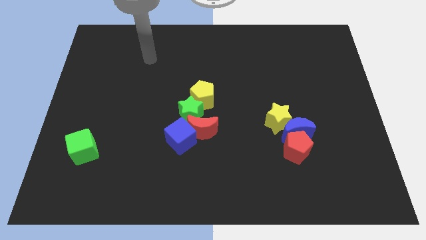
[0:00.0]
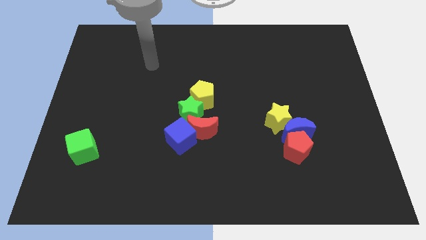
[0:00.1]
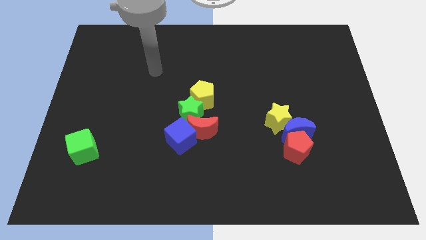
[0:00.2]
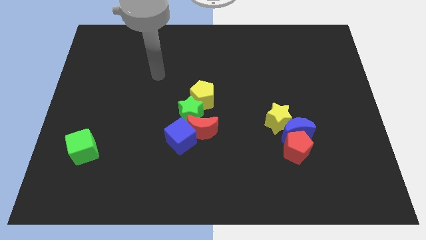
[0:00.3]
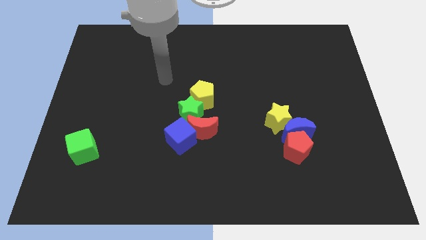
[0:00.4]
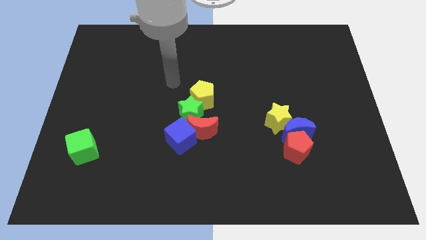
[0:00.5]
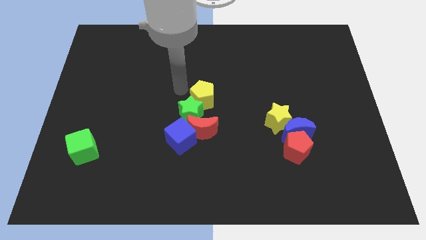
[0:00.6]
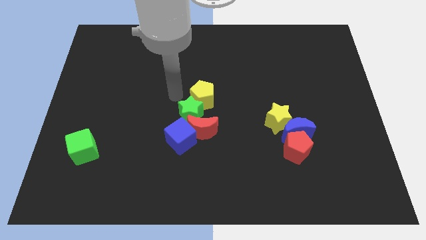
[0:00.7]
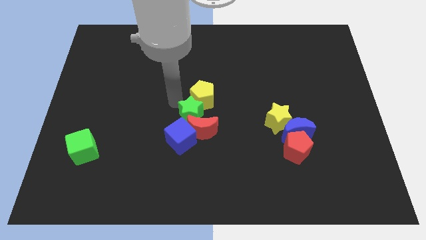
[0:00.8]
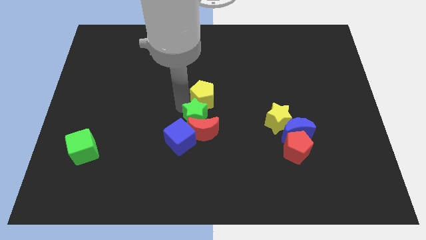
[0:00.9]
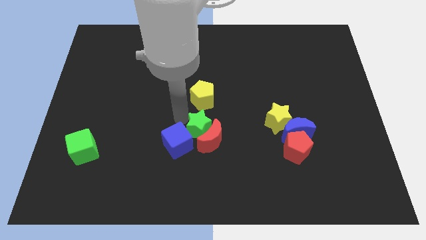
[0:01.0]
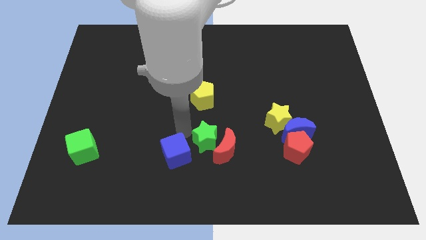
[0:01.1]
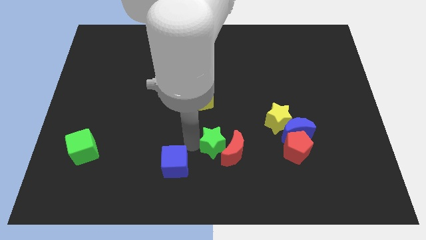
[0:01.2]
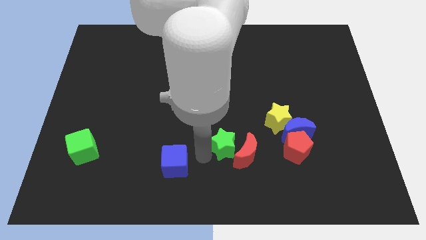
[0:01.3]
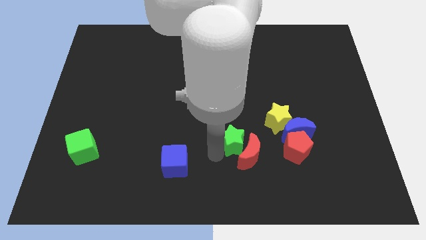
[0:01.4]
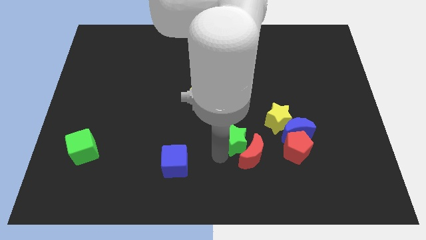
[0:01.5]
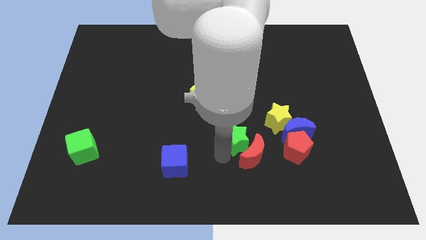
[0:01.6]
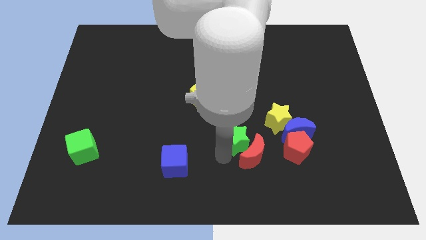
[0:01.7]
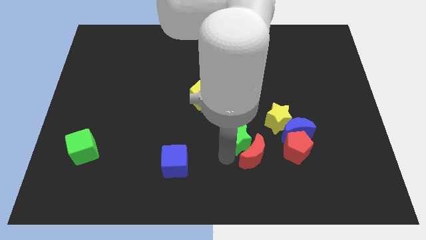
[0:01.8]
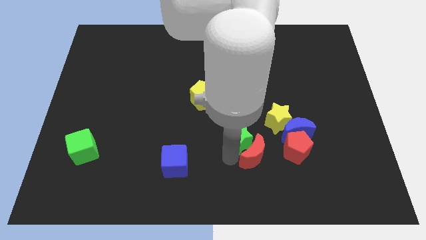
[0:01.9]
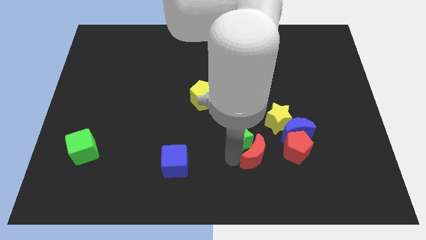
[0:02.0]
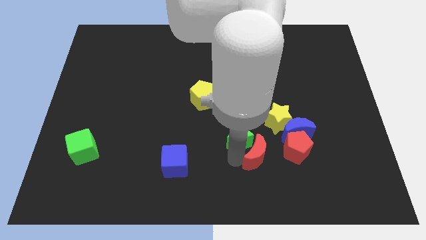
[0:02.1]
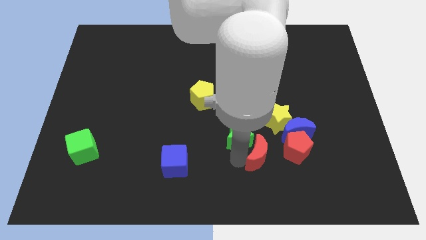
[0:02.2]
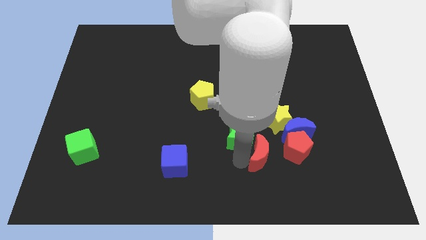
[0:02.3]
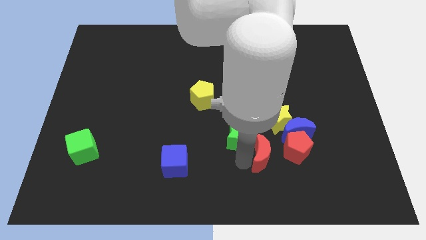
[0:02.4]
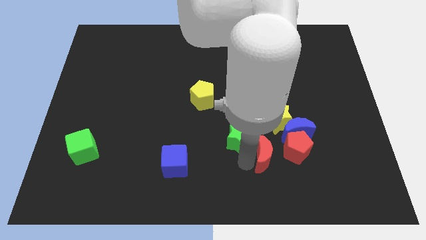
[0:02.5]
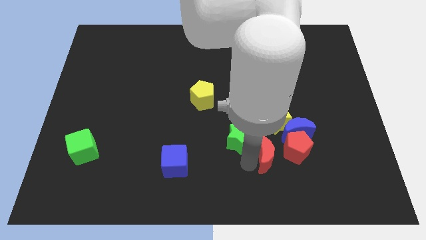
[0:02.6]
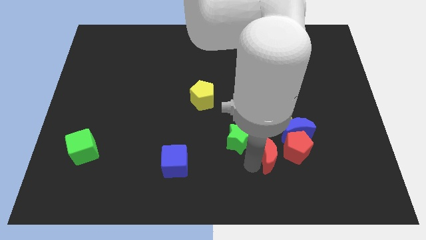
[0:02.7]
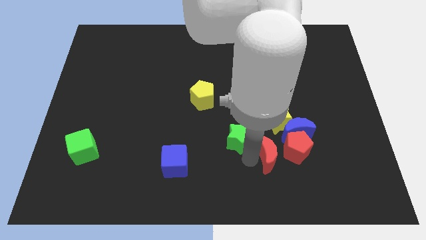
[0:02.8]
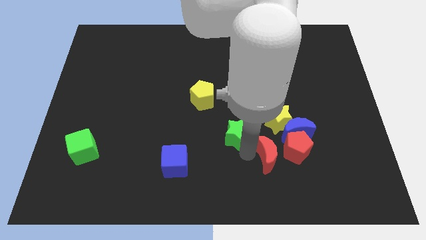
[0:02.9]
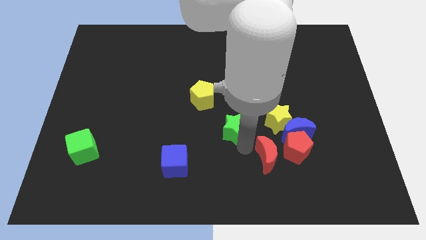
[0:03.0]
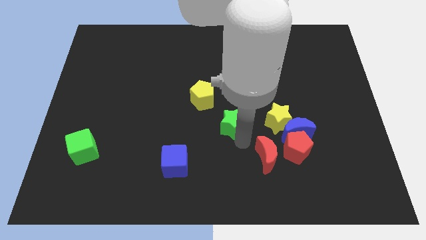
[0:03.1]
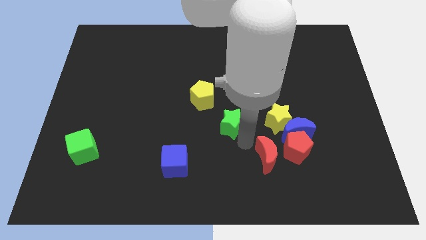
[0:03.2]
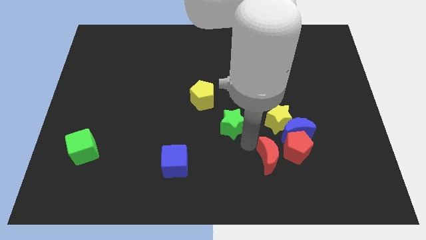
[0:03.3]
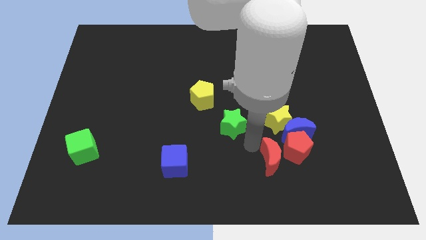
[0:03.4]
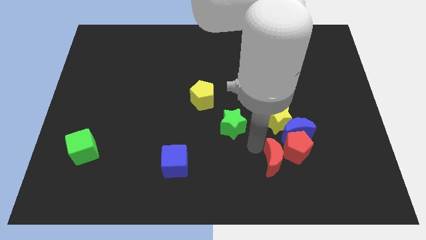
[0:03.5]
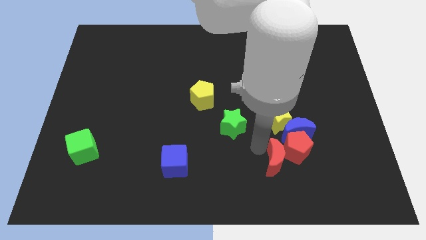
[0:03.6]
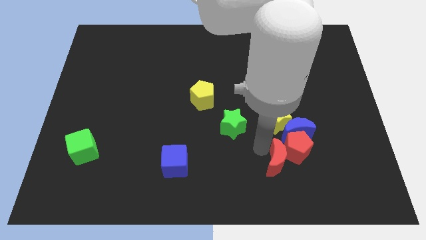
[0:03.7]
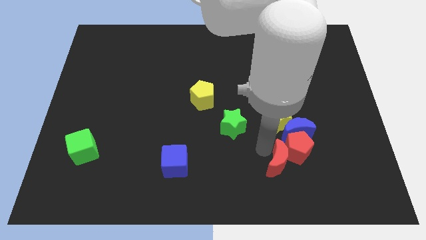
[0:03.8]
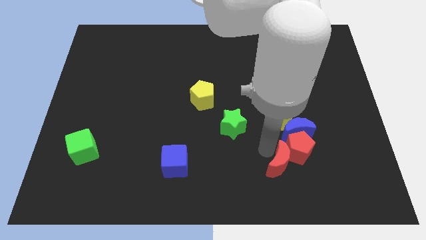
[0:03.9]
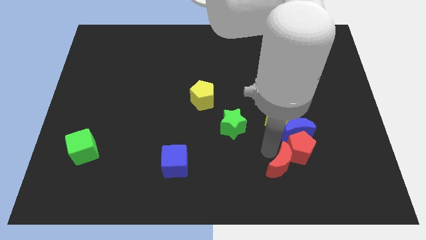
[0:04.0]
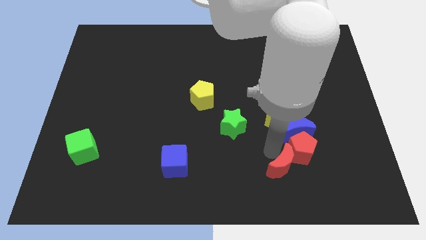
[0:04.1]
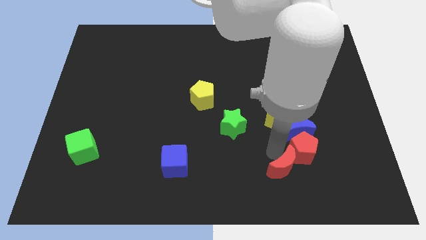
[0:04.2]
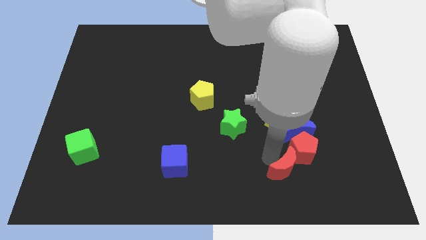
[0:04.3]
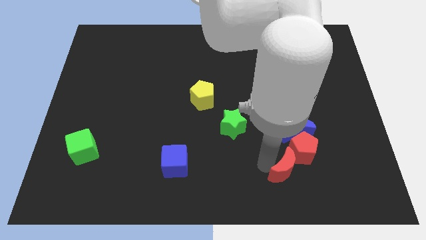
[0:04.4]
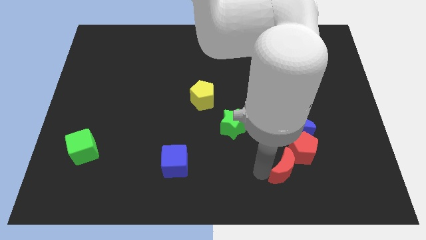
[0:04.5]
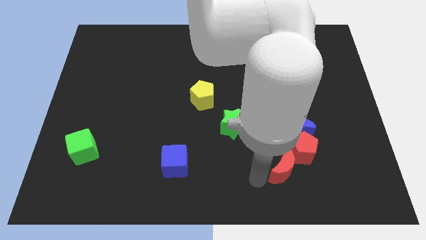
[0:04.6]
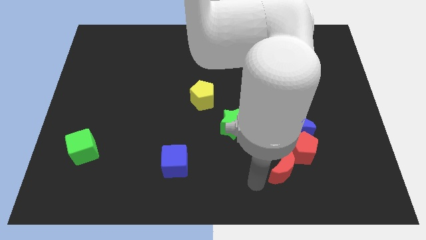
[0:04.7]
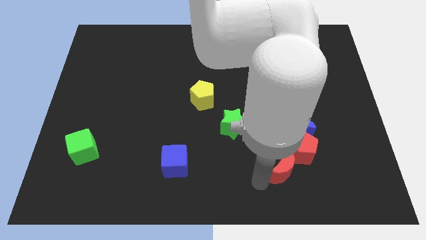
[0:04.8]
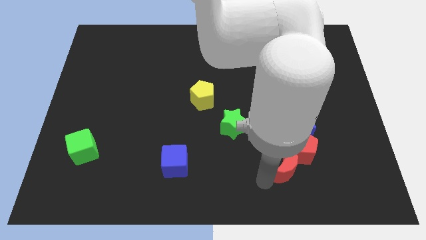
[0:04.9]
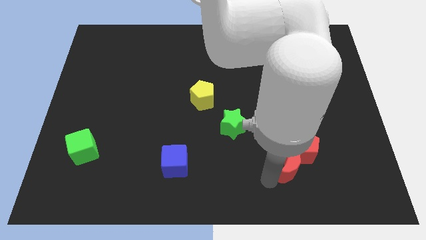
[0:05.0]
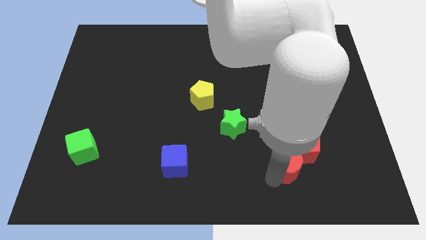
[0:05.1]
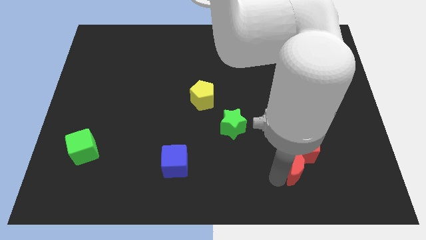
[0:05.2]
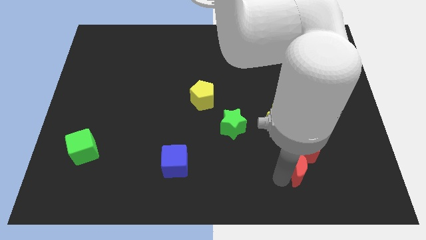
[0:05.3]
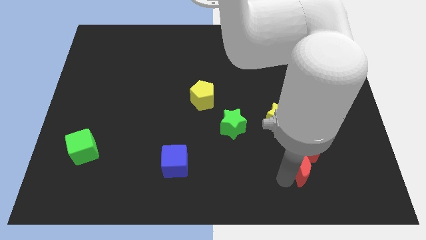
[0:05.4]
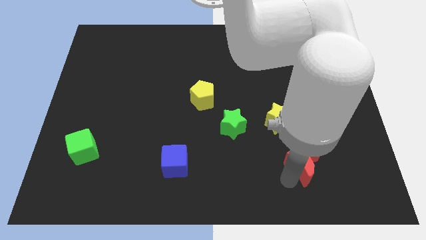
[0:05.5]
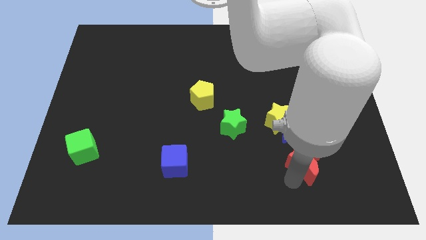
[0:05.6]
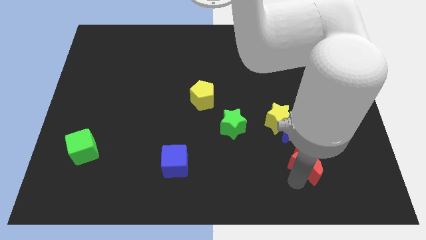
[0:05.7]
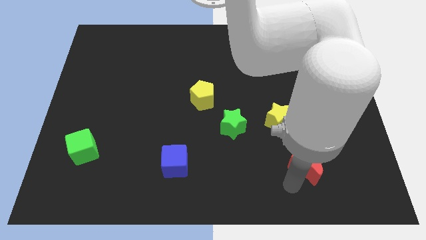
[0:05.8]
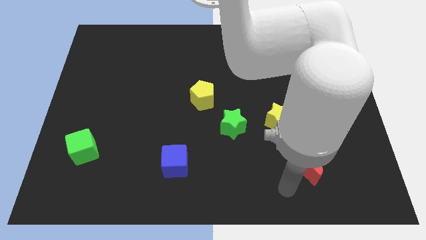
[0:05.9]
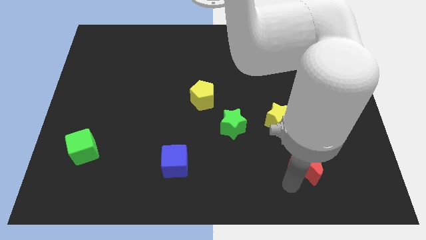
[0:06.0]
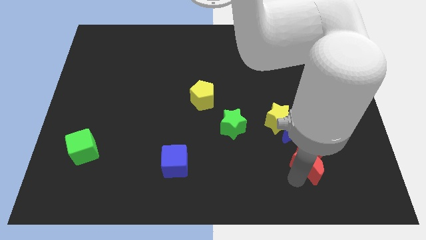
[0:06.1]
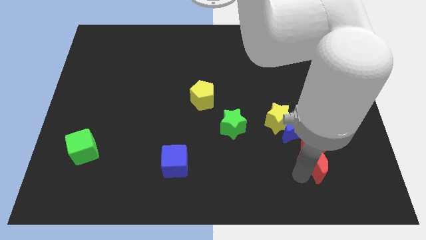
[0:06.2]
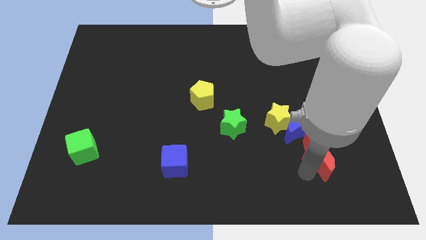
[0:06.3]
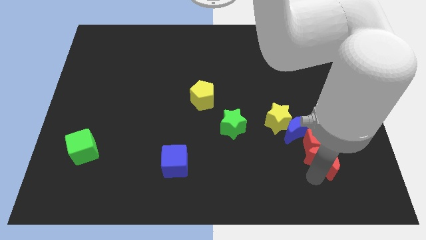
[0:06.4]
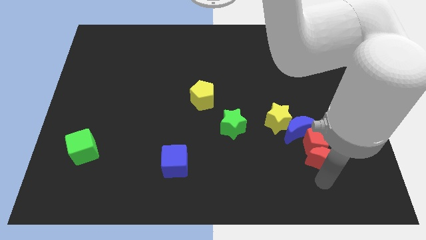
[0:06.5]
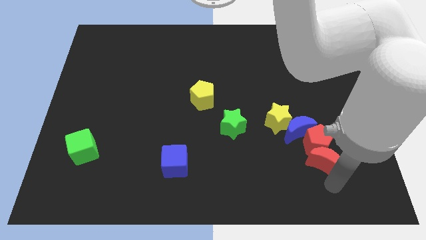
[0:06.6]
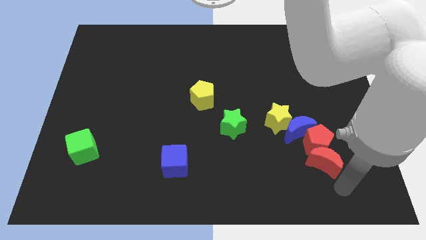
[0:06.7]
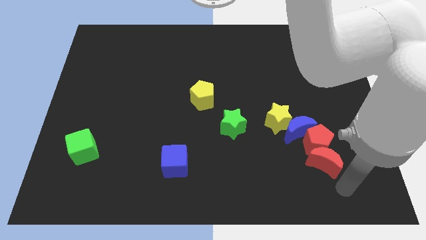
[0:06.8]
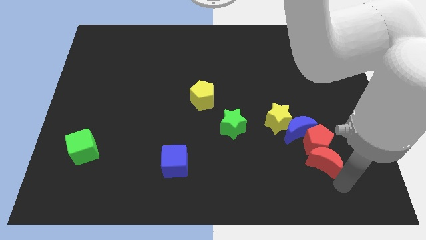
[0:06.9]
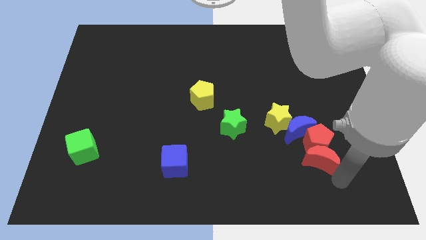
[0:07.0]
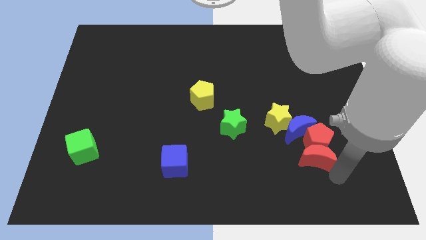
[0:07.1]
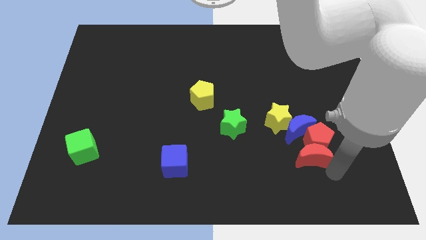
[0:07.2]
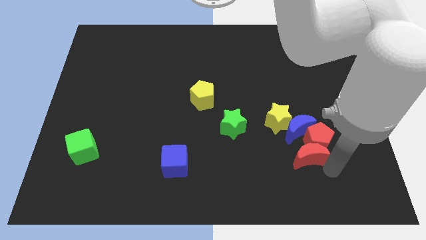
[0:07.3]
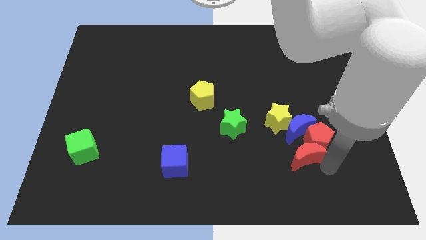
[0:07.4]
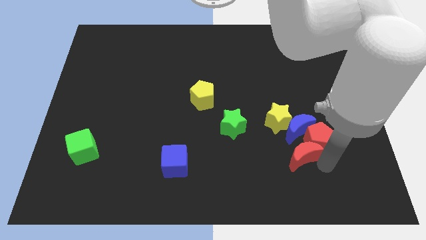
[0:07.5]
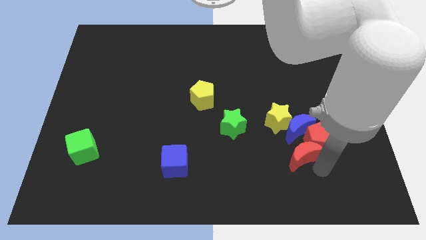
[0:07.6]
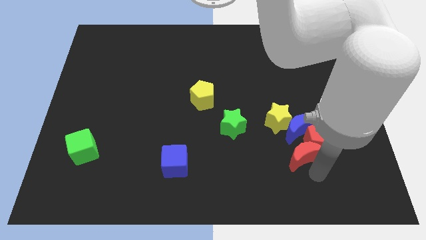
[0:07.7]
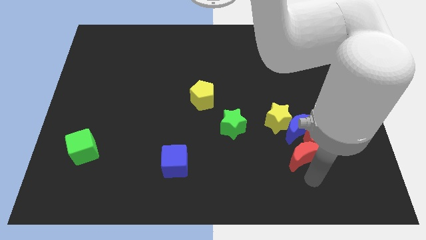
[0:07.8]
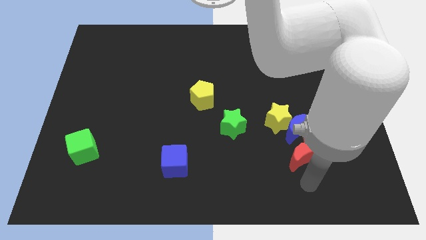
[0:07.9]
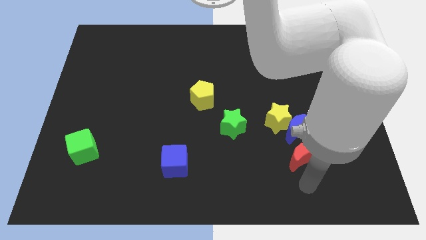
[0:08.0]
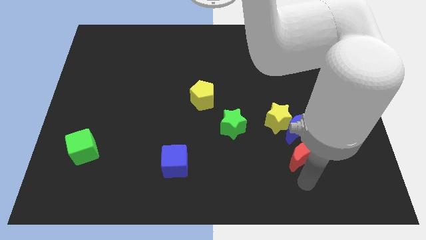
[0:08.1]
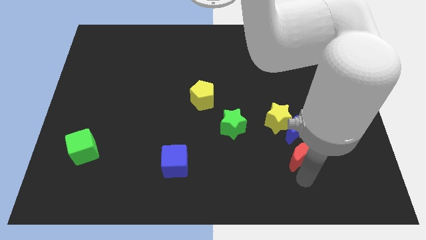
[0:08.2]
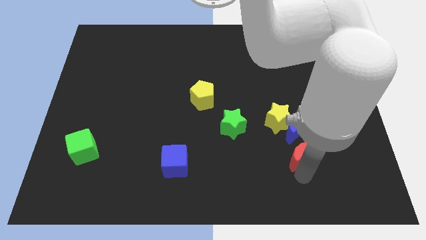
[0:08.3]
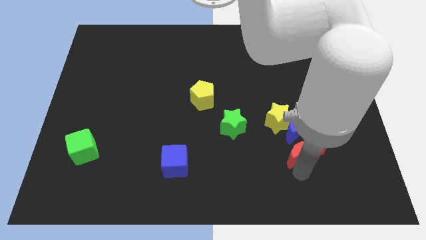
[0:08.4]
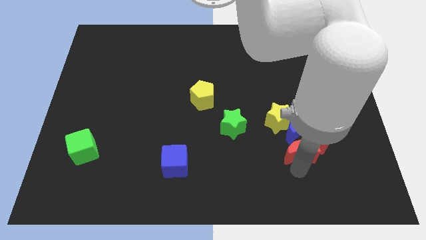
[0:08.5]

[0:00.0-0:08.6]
push the red moon towards the blue moon
